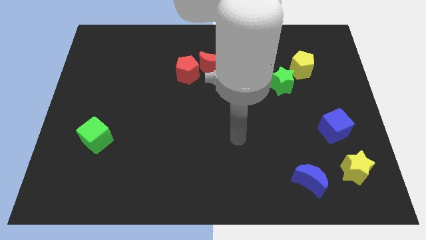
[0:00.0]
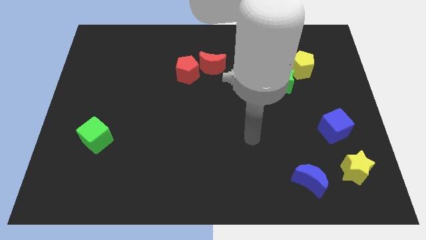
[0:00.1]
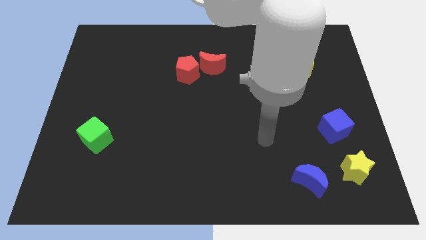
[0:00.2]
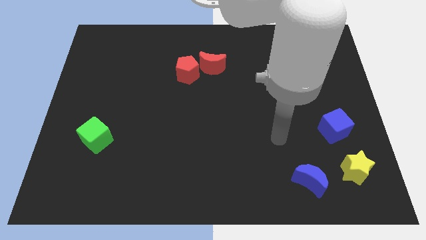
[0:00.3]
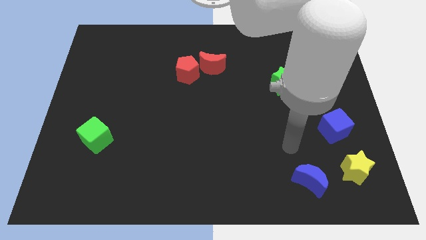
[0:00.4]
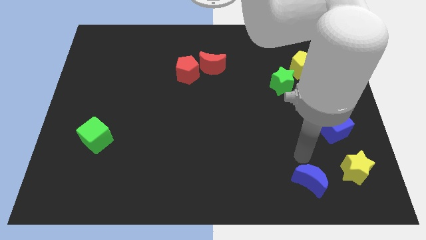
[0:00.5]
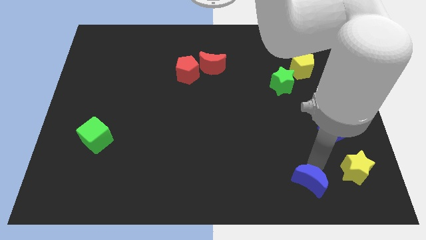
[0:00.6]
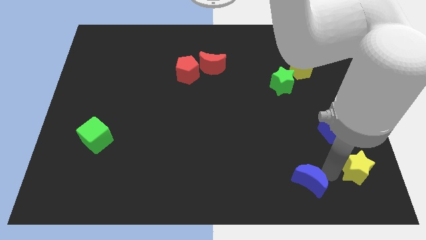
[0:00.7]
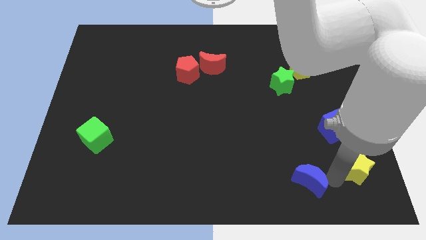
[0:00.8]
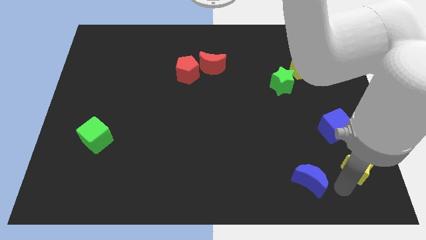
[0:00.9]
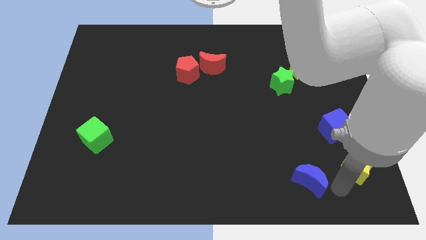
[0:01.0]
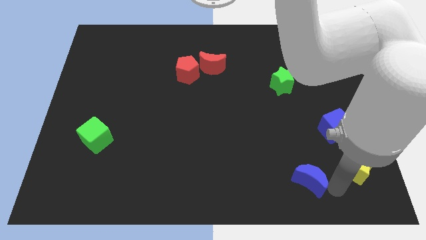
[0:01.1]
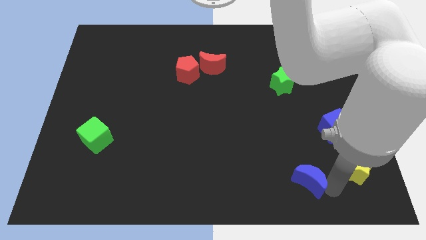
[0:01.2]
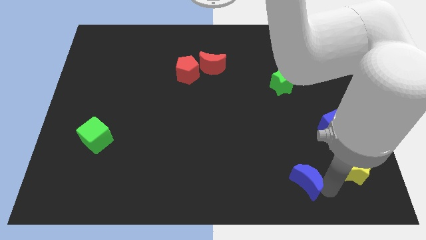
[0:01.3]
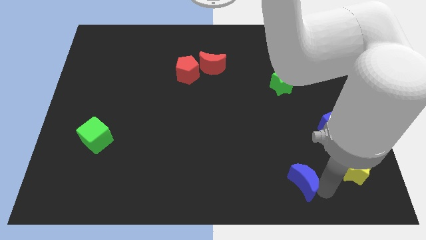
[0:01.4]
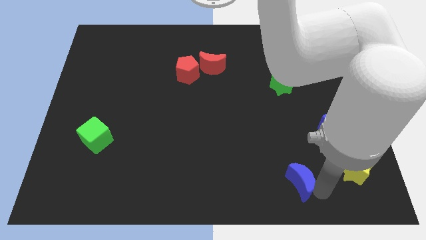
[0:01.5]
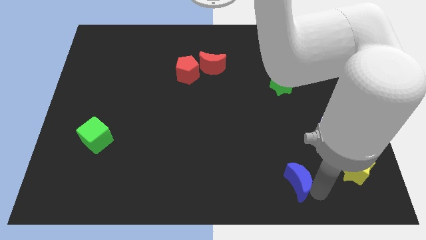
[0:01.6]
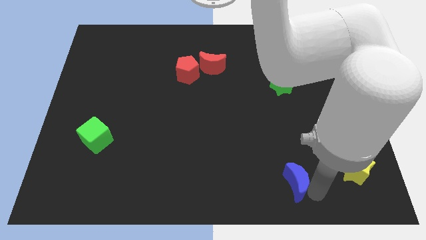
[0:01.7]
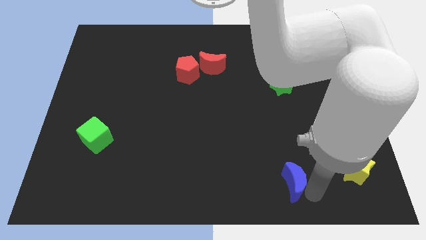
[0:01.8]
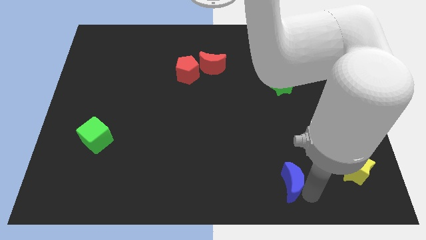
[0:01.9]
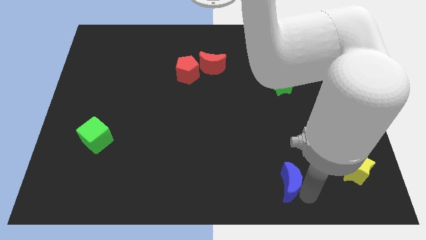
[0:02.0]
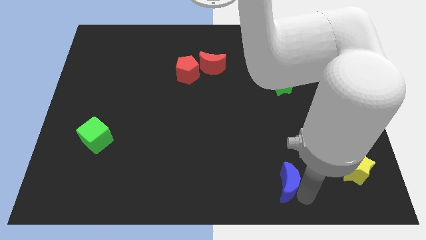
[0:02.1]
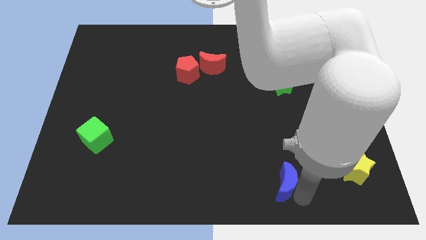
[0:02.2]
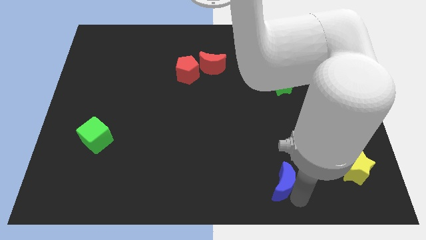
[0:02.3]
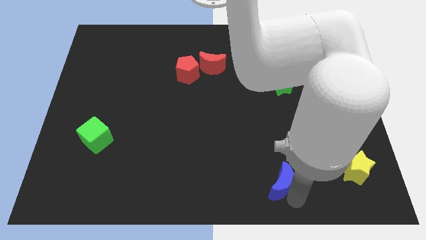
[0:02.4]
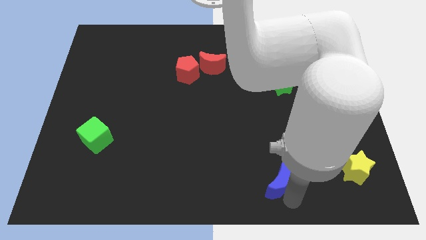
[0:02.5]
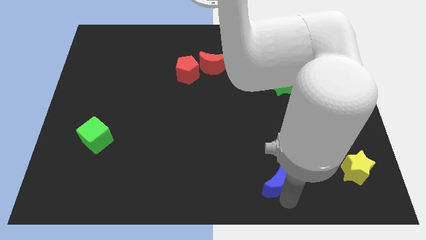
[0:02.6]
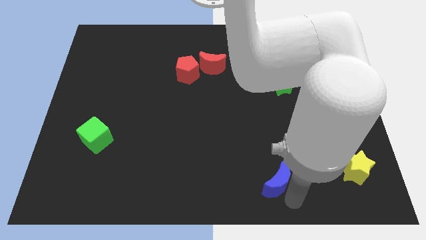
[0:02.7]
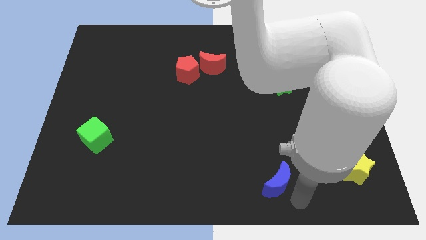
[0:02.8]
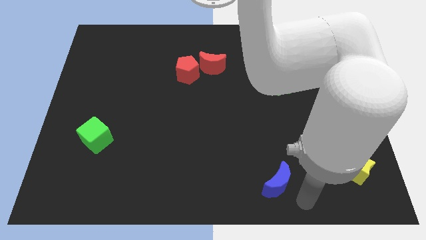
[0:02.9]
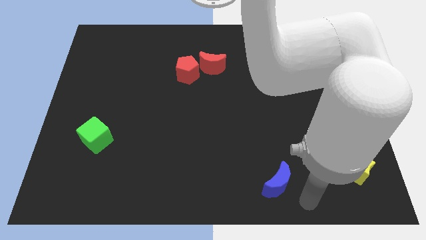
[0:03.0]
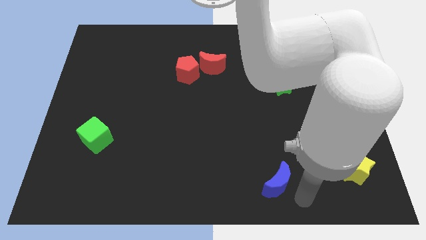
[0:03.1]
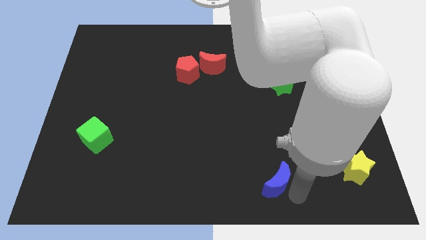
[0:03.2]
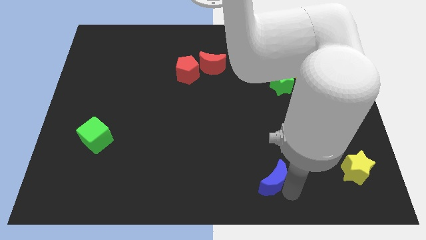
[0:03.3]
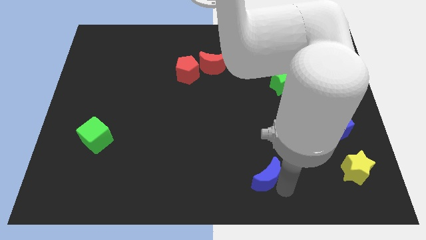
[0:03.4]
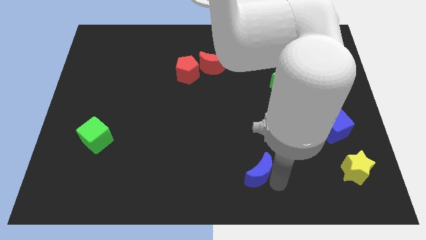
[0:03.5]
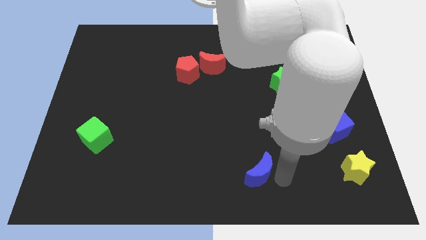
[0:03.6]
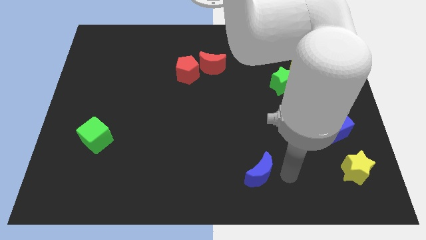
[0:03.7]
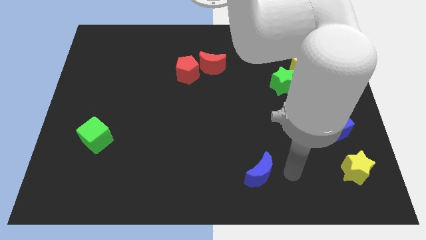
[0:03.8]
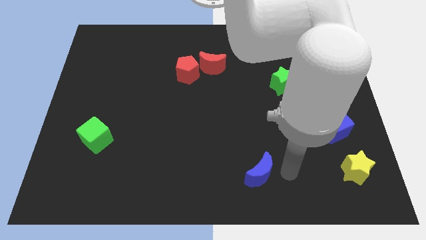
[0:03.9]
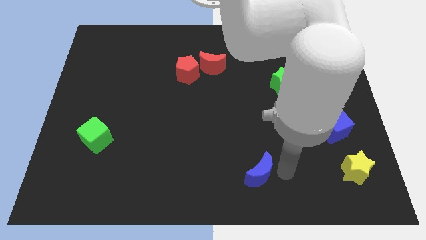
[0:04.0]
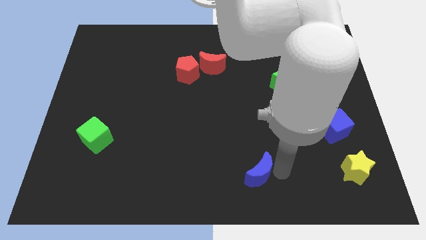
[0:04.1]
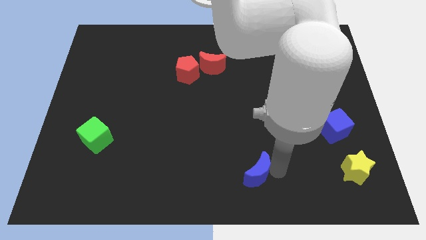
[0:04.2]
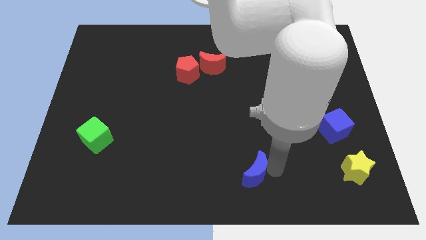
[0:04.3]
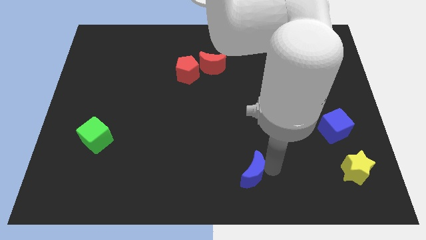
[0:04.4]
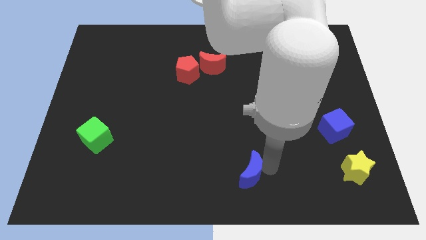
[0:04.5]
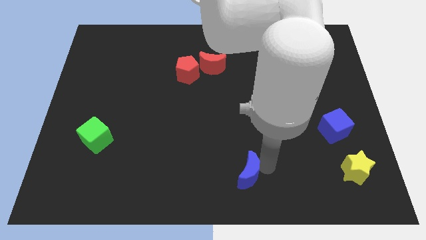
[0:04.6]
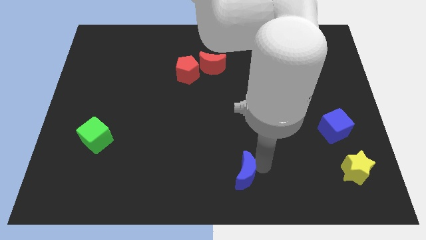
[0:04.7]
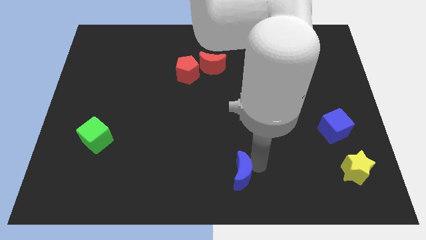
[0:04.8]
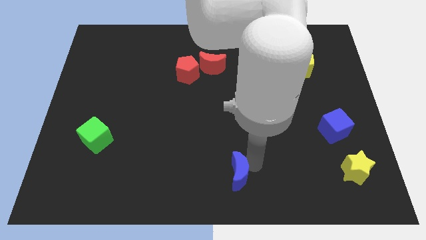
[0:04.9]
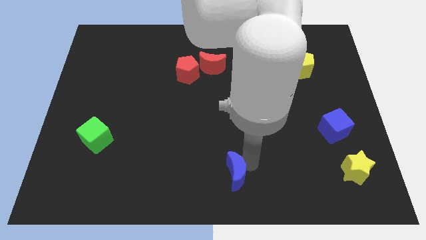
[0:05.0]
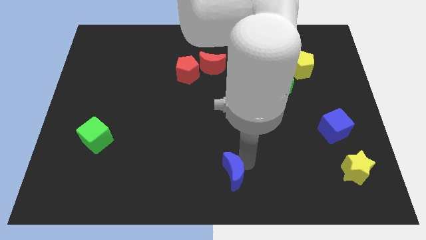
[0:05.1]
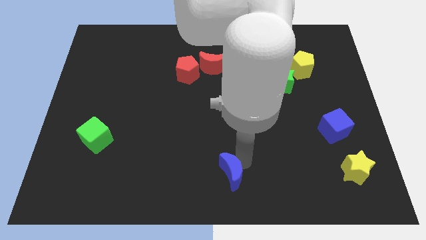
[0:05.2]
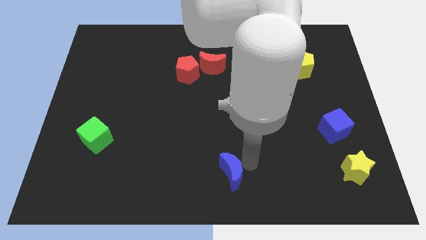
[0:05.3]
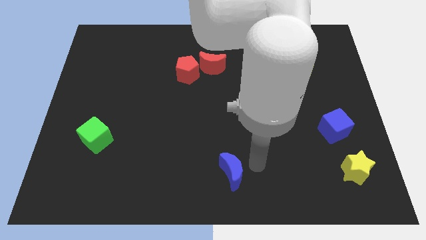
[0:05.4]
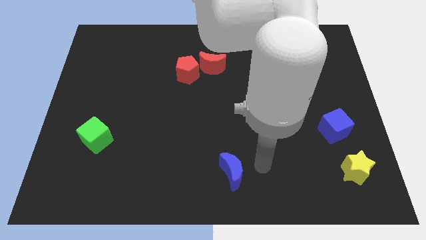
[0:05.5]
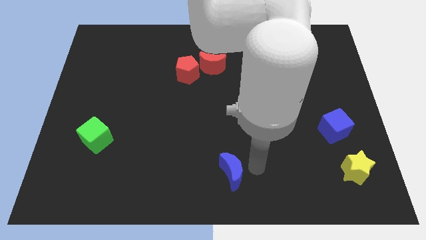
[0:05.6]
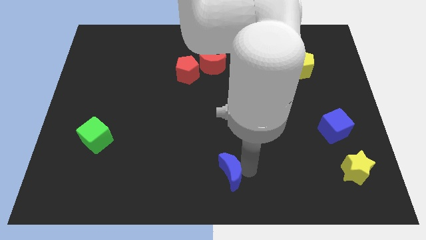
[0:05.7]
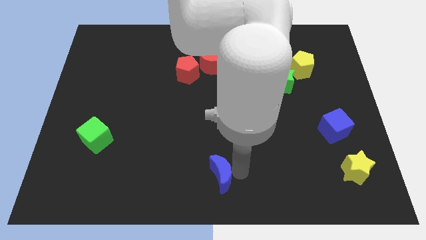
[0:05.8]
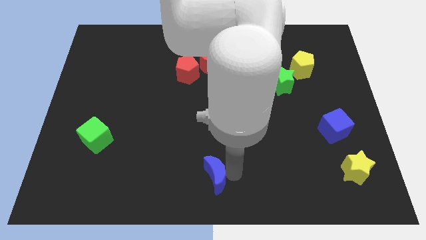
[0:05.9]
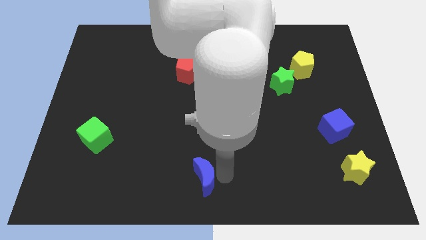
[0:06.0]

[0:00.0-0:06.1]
move the blue moon left

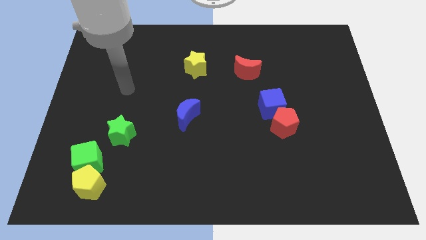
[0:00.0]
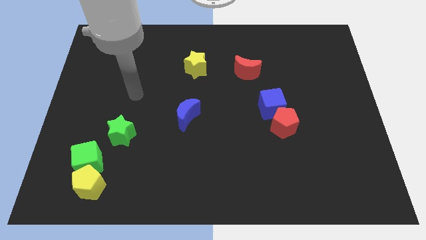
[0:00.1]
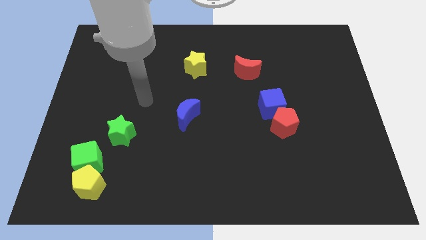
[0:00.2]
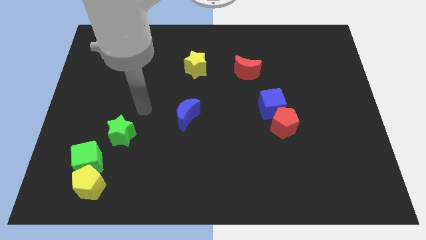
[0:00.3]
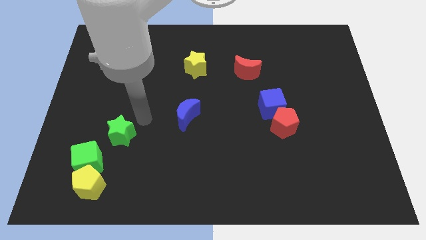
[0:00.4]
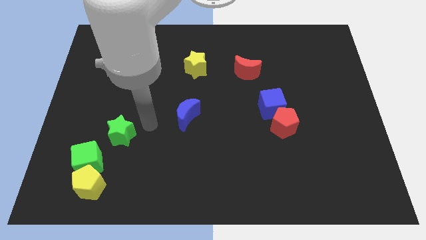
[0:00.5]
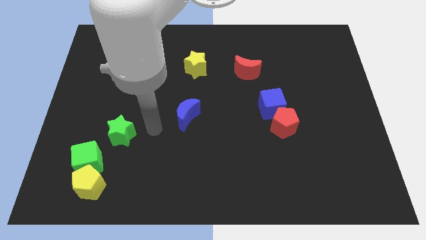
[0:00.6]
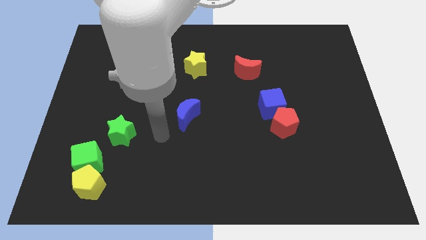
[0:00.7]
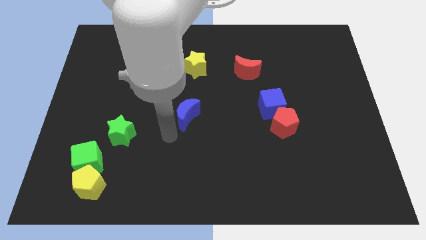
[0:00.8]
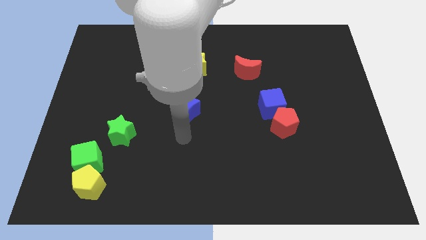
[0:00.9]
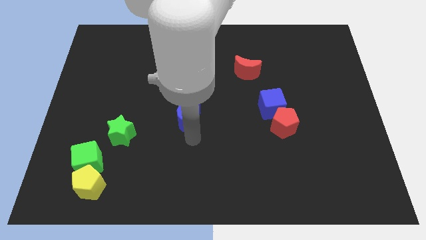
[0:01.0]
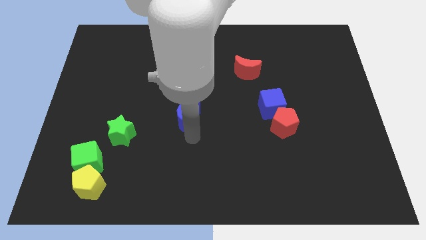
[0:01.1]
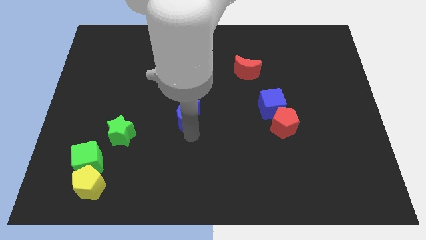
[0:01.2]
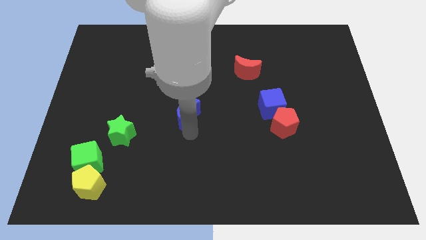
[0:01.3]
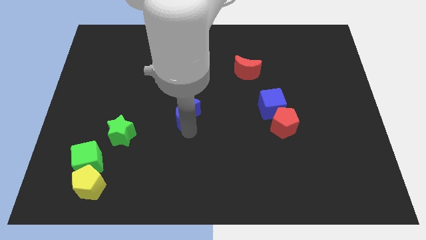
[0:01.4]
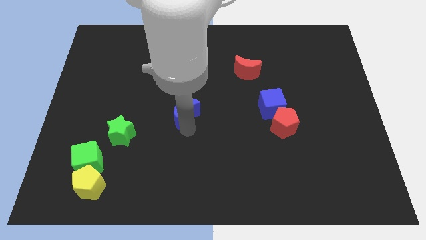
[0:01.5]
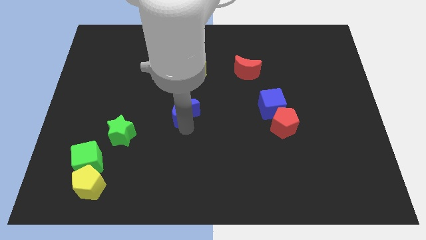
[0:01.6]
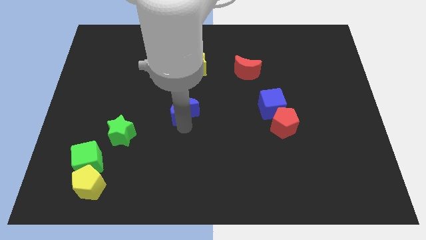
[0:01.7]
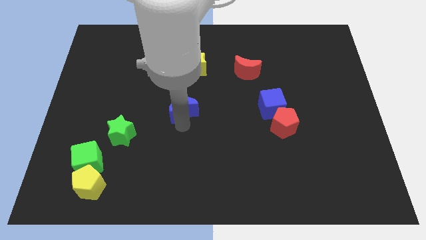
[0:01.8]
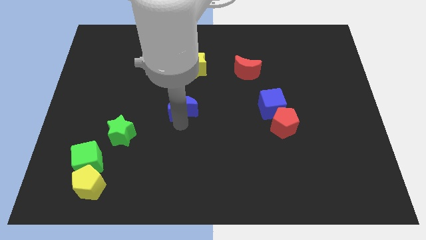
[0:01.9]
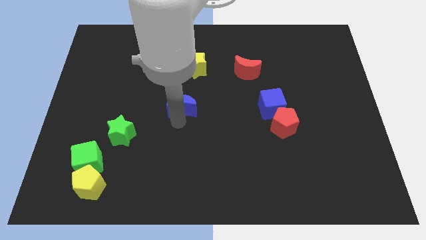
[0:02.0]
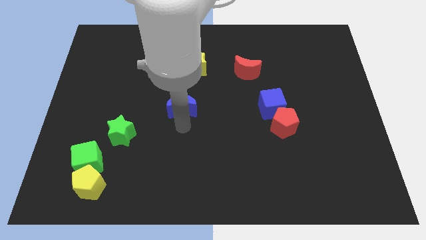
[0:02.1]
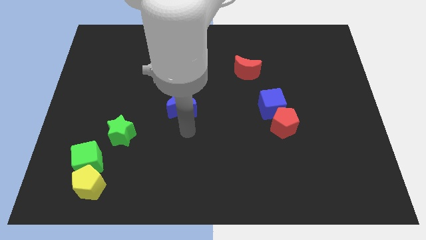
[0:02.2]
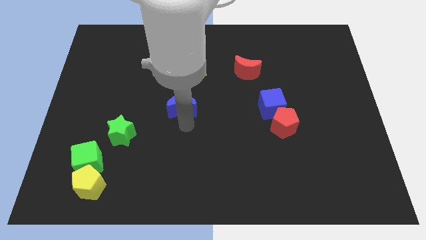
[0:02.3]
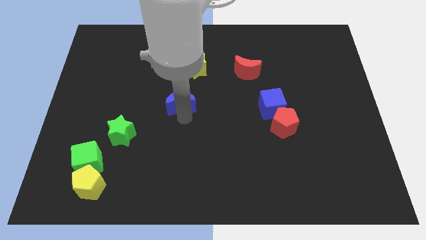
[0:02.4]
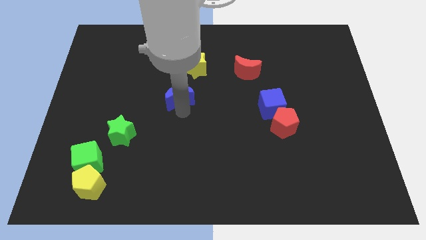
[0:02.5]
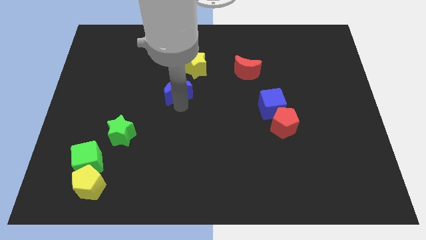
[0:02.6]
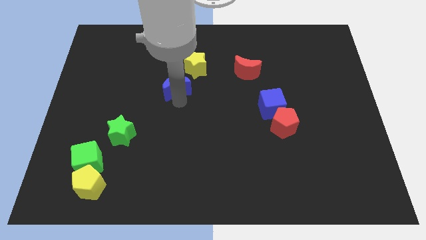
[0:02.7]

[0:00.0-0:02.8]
move the blue moon slightly upwards
